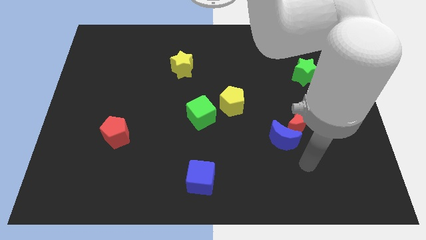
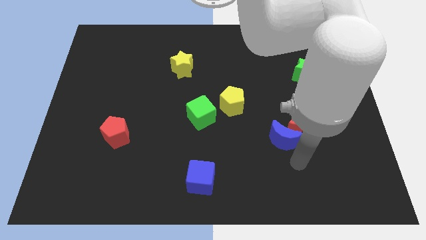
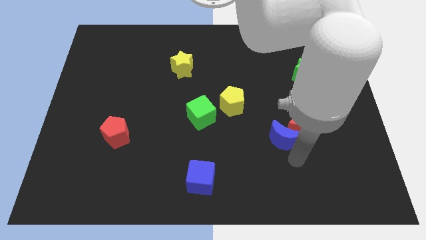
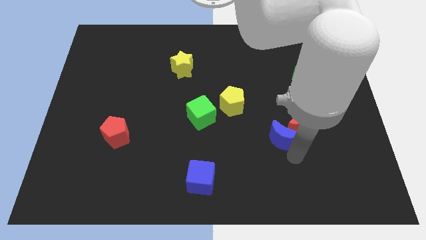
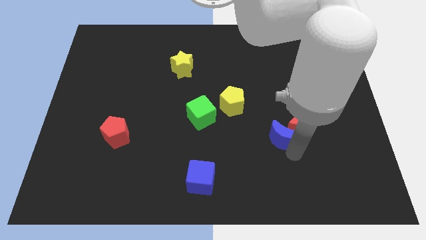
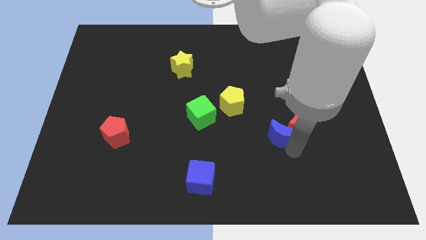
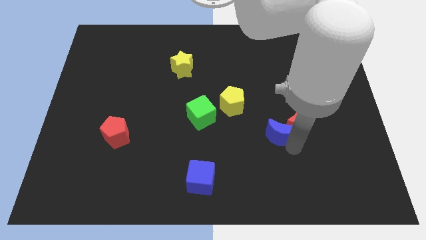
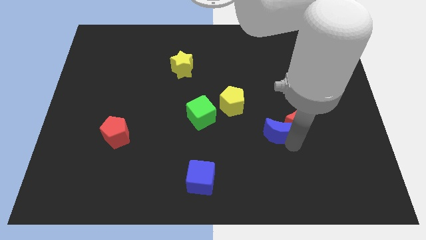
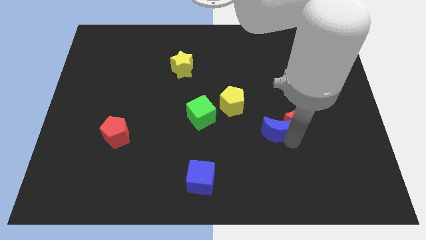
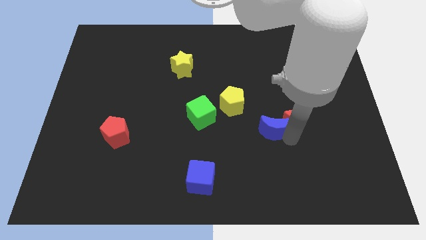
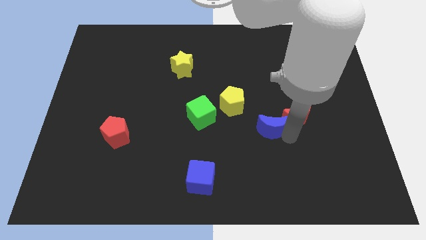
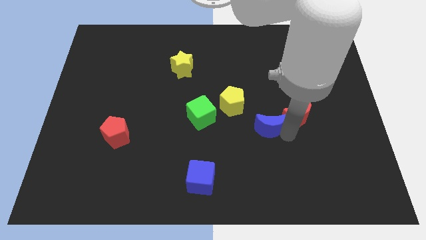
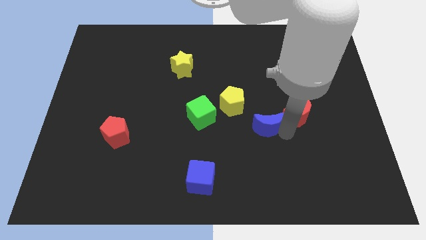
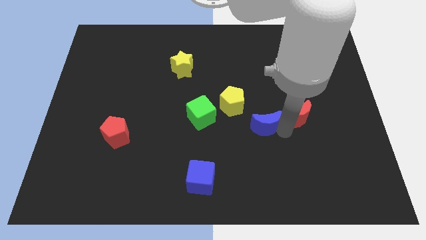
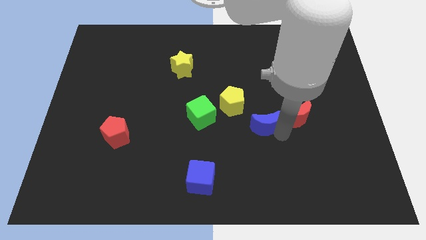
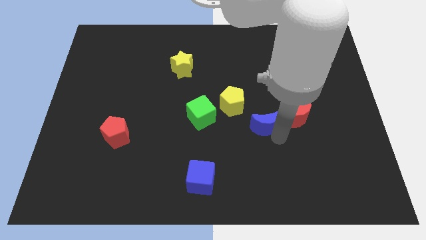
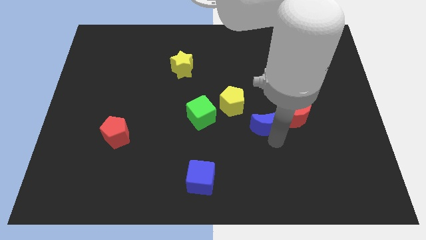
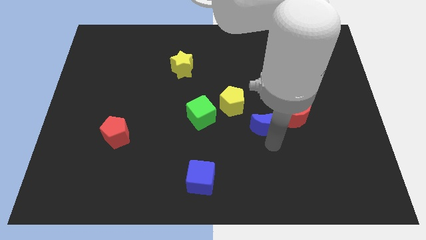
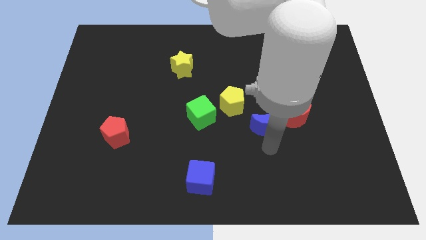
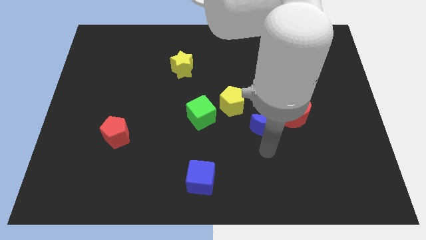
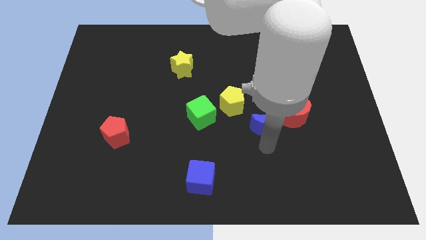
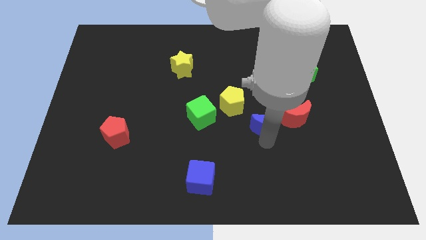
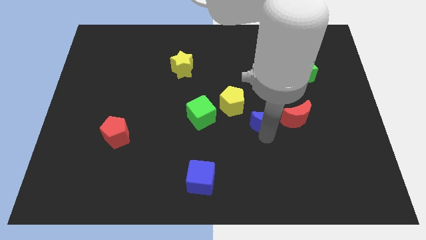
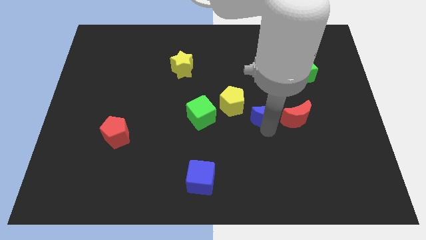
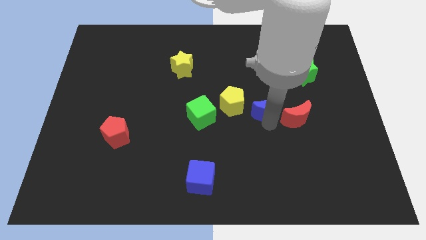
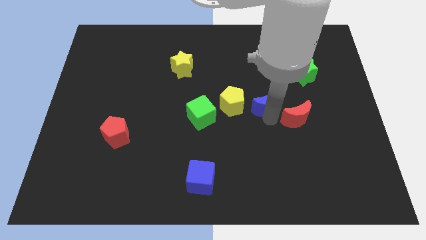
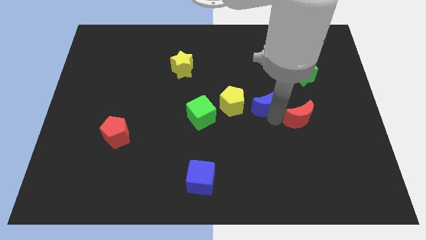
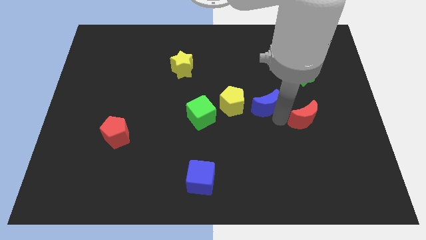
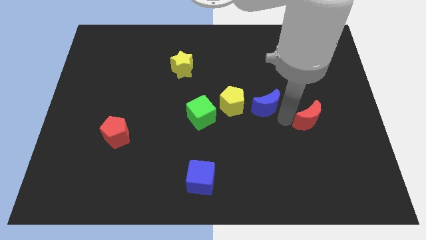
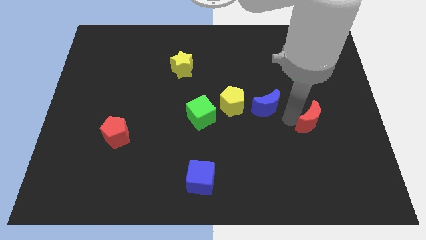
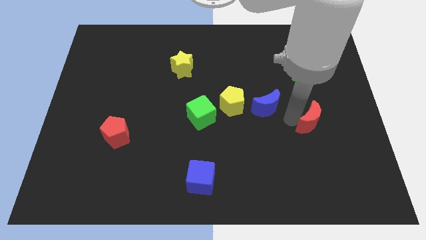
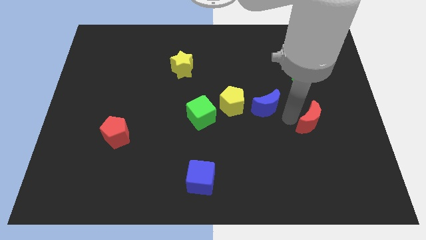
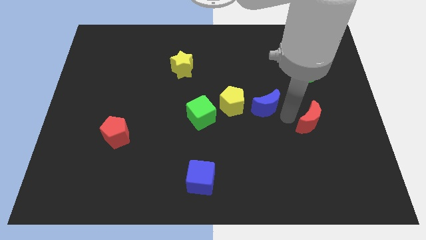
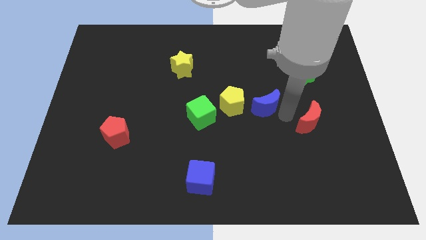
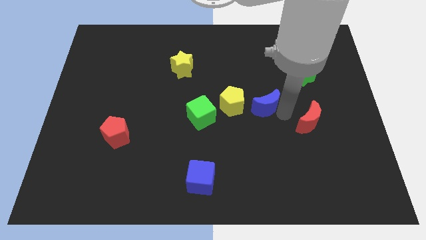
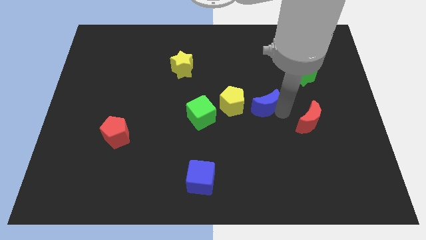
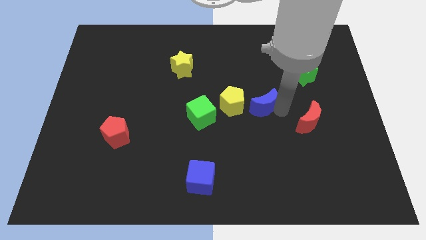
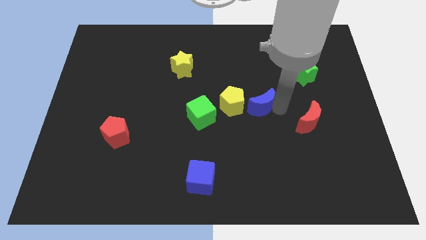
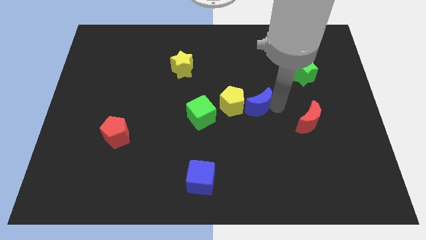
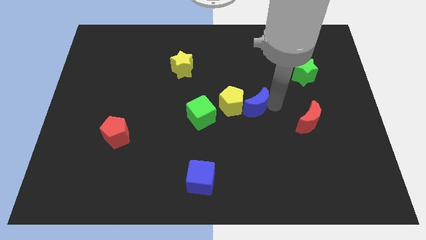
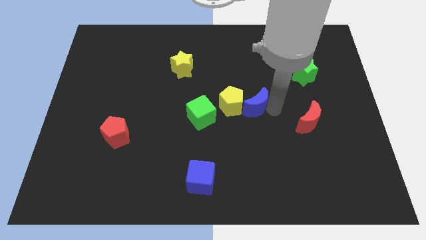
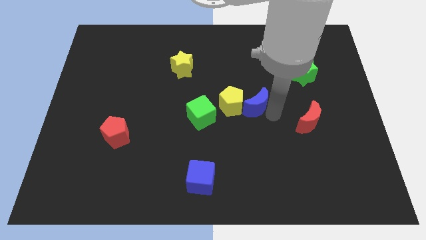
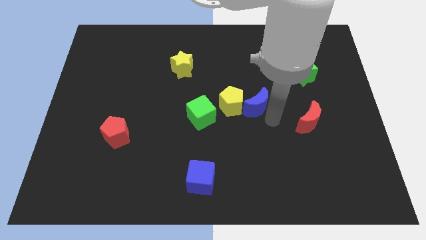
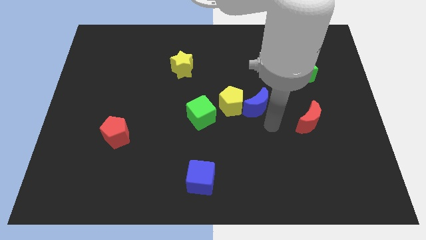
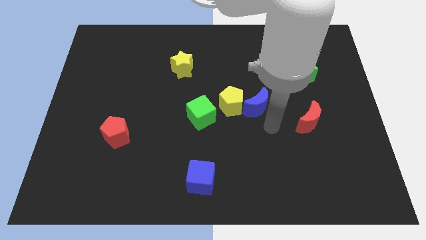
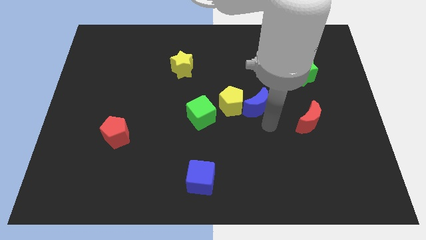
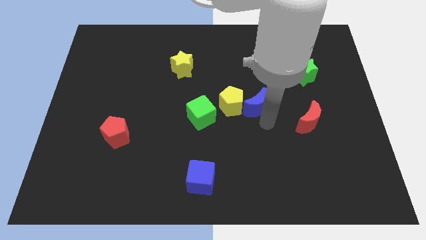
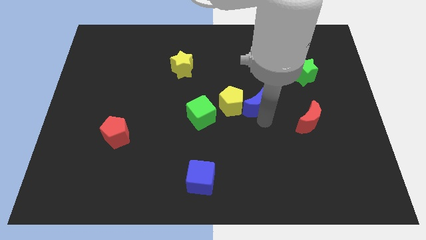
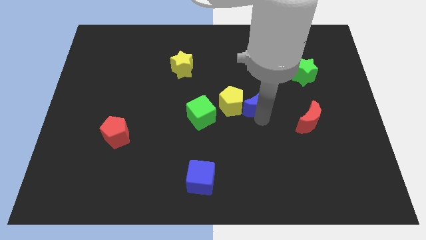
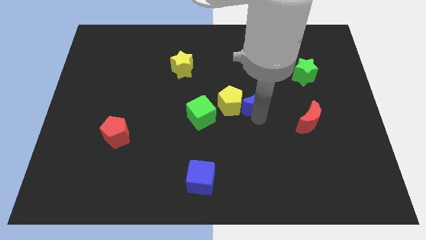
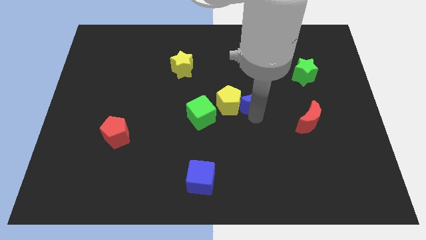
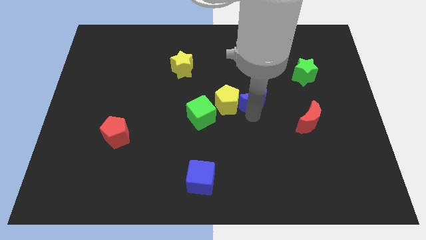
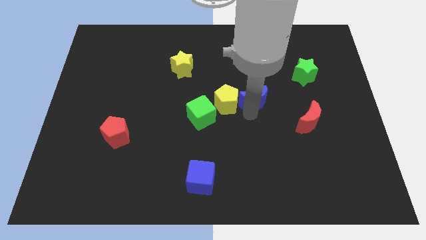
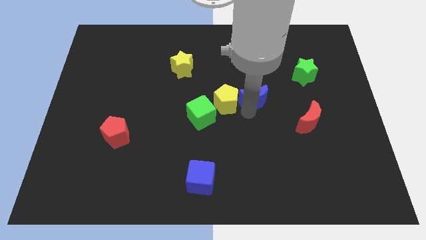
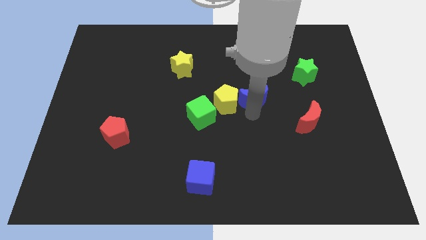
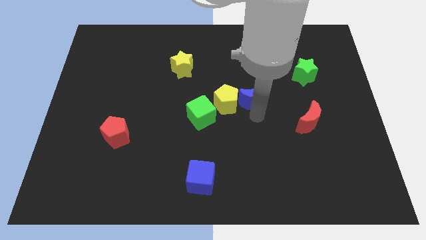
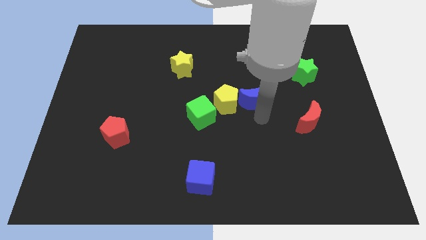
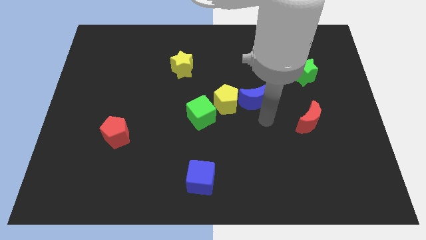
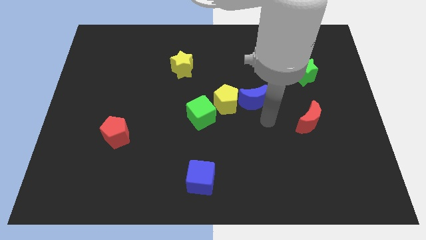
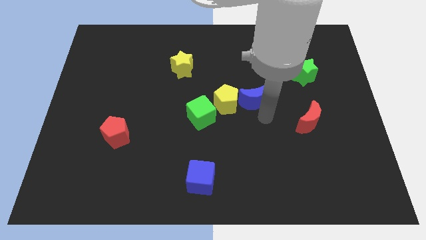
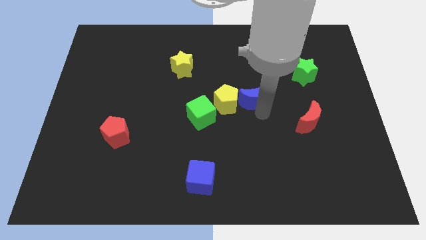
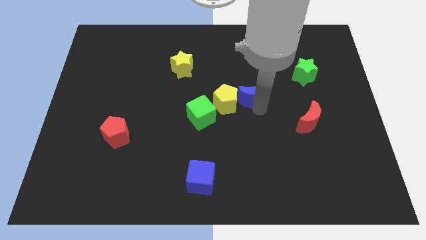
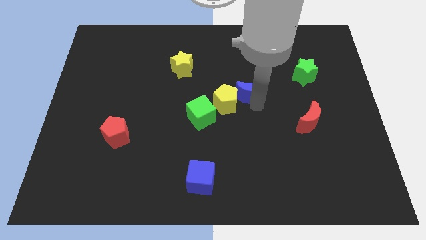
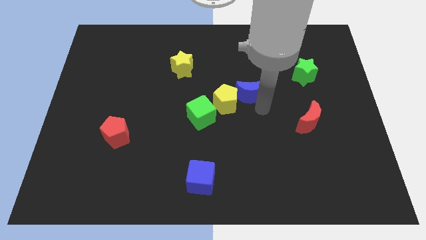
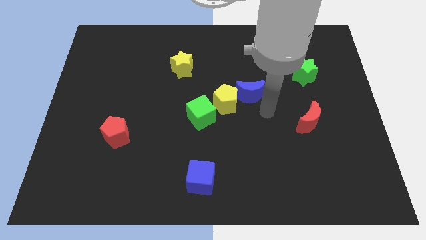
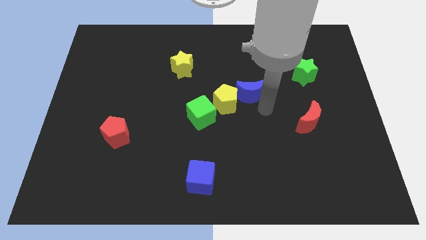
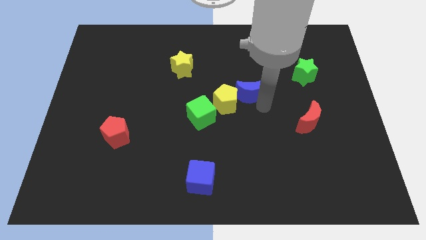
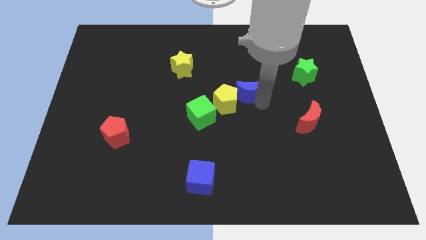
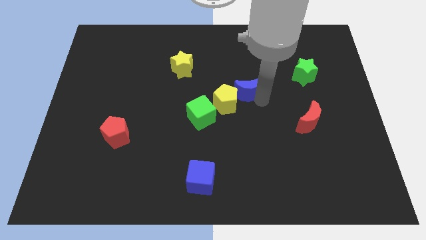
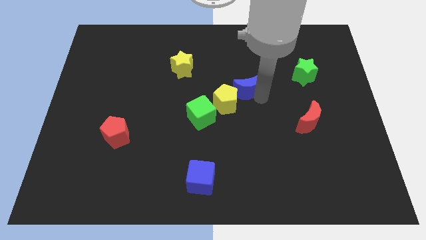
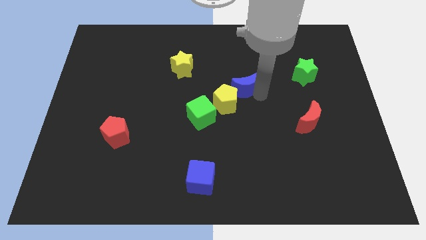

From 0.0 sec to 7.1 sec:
slide the blue moon to the top of the yellow pentagon

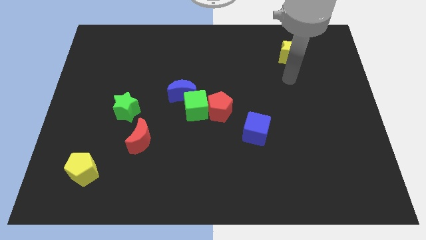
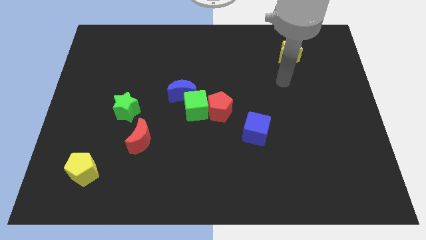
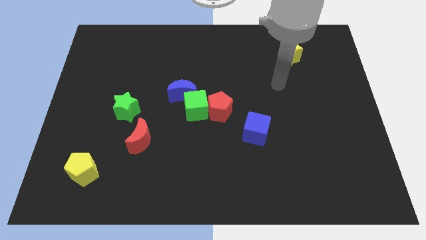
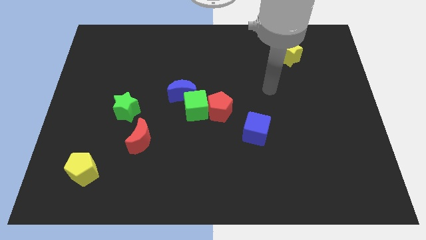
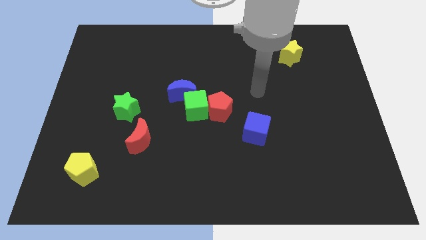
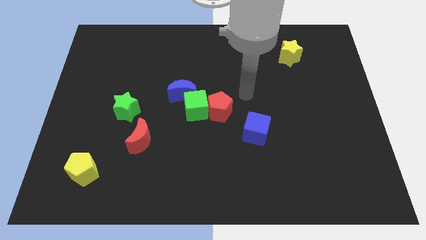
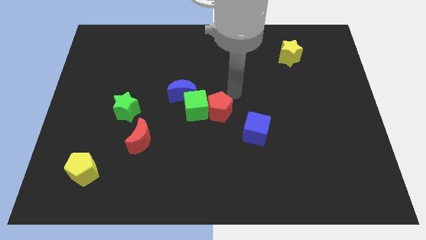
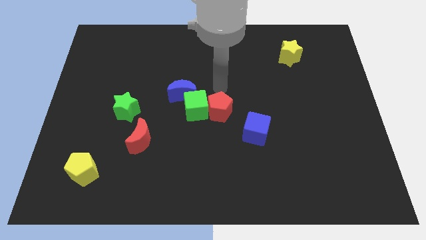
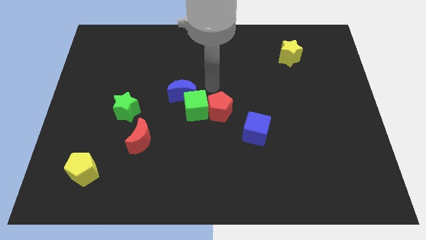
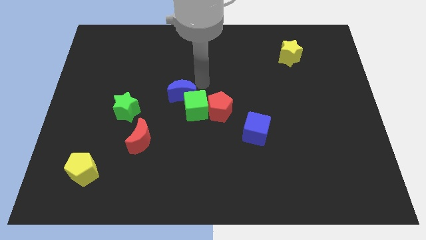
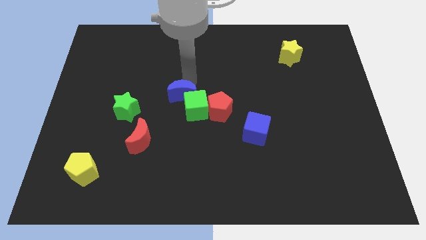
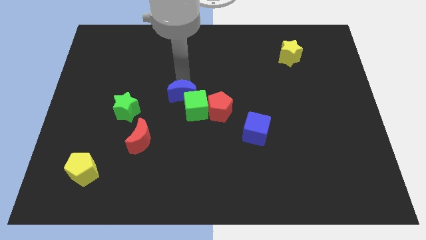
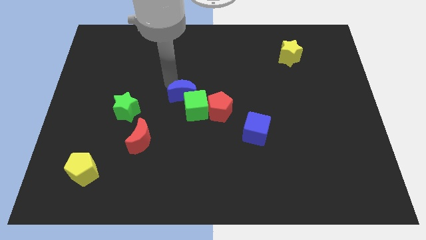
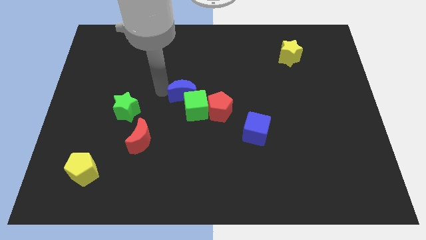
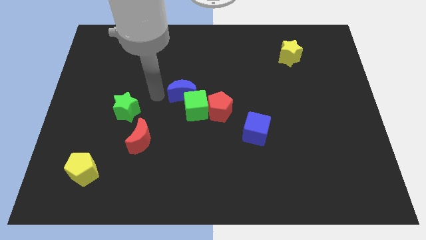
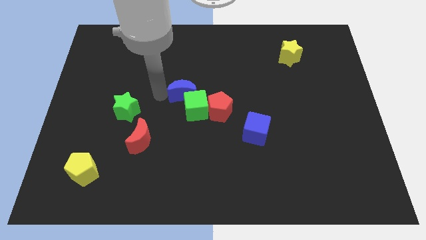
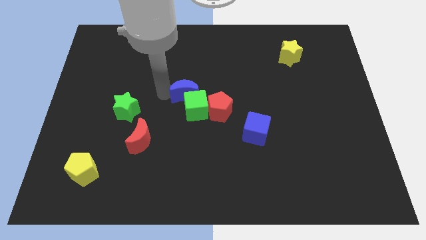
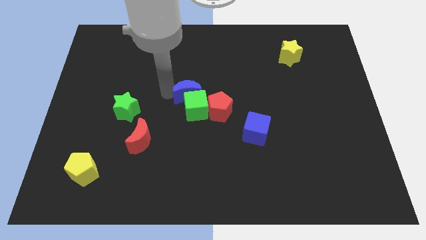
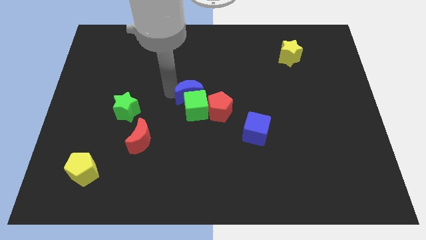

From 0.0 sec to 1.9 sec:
put the blue moon to the top right of the green cube
